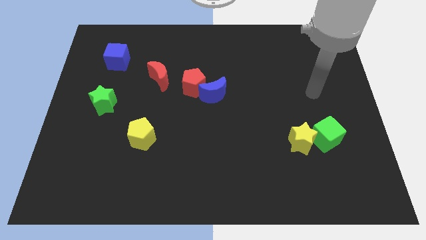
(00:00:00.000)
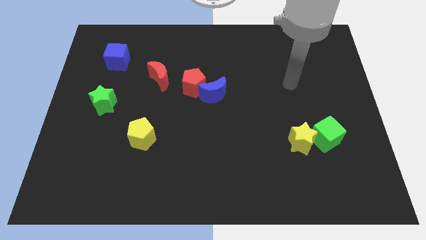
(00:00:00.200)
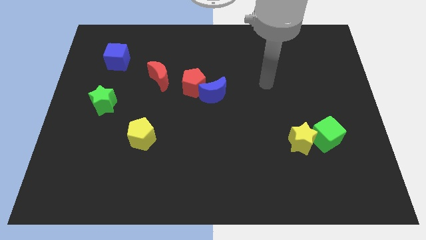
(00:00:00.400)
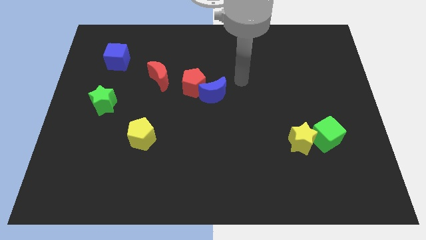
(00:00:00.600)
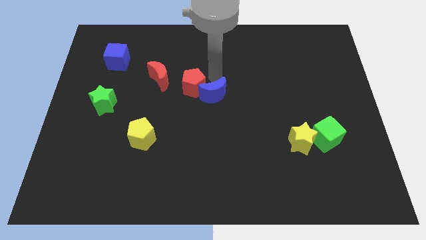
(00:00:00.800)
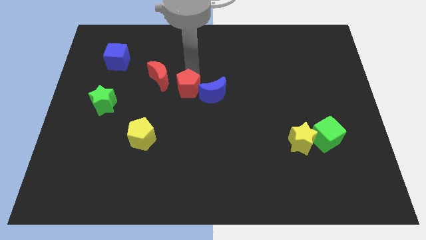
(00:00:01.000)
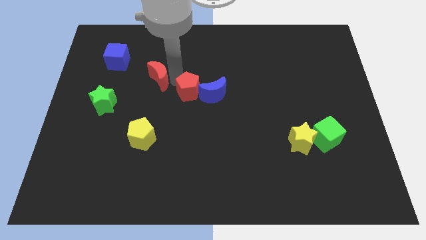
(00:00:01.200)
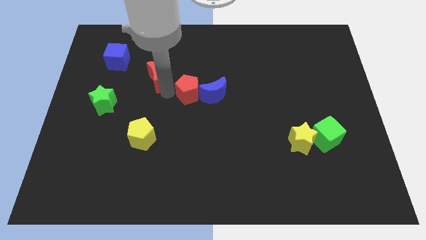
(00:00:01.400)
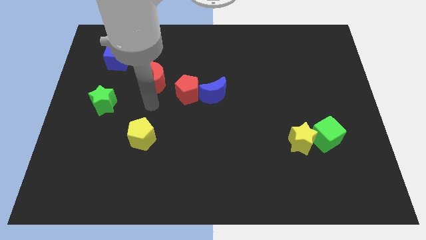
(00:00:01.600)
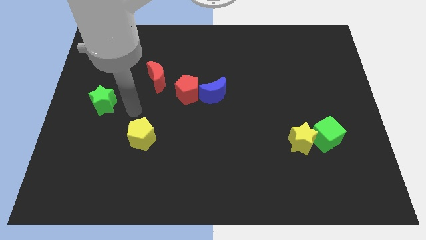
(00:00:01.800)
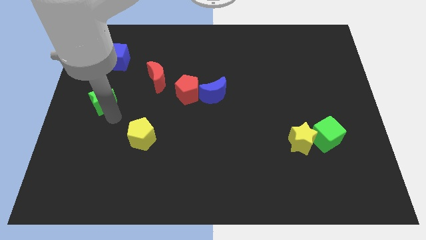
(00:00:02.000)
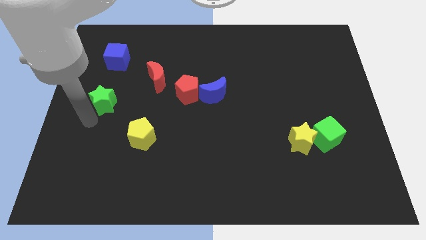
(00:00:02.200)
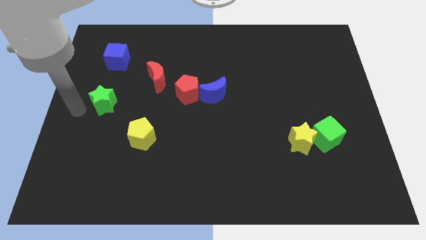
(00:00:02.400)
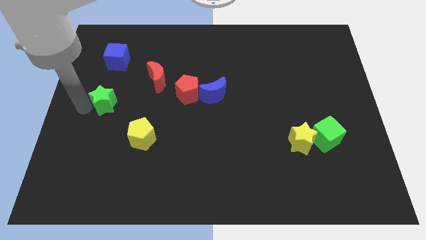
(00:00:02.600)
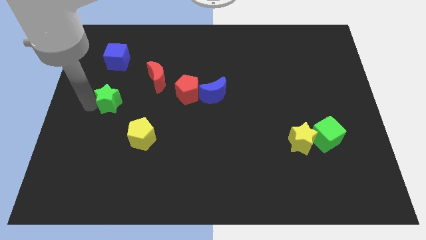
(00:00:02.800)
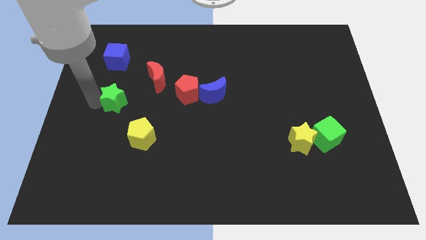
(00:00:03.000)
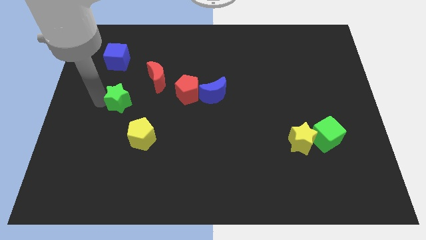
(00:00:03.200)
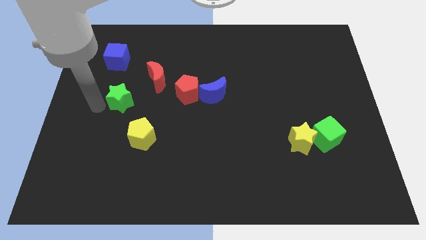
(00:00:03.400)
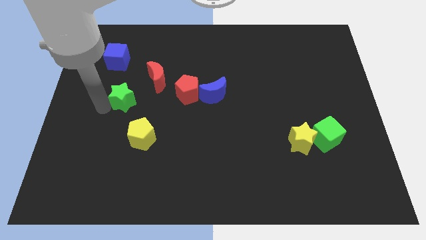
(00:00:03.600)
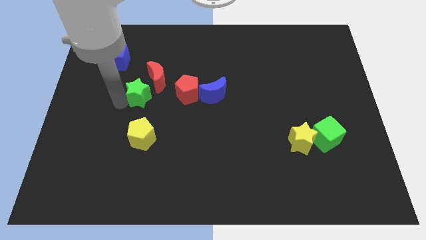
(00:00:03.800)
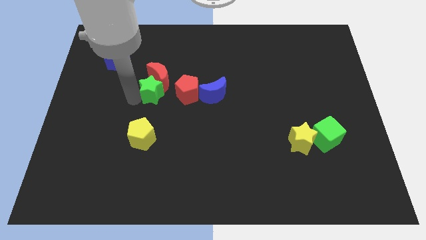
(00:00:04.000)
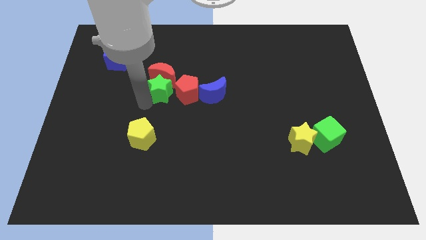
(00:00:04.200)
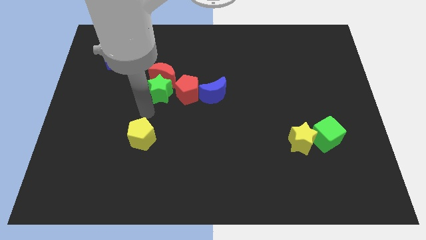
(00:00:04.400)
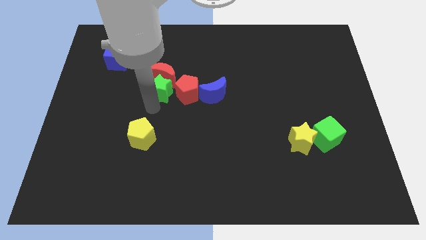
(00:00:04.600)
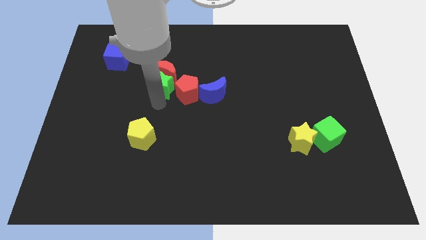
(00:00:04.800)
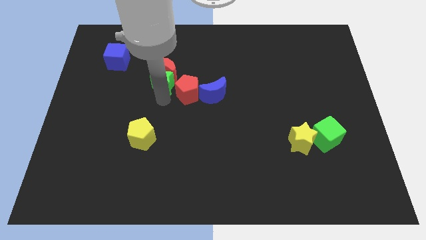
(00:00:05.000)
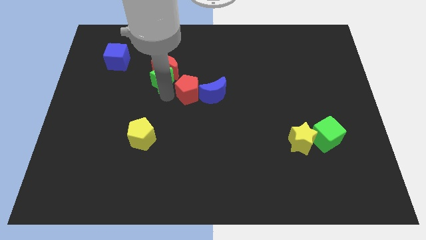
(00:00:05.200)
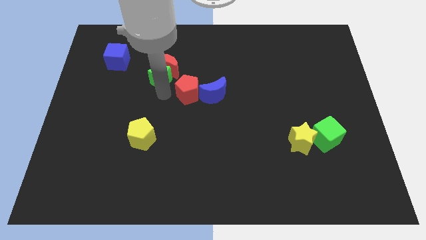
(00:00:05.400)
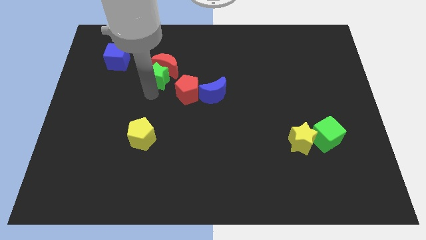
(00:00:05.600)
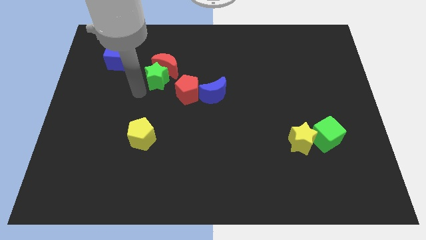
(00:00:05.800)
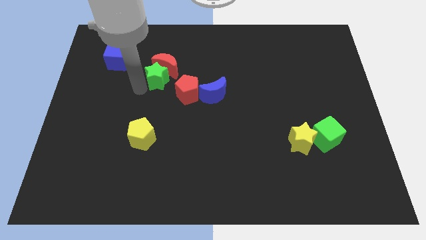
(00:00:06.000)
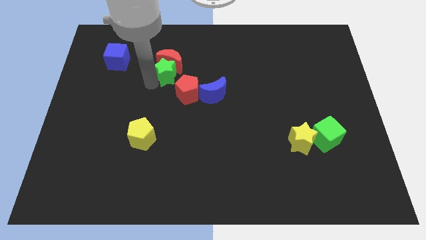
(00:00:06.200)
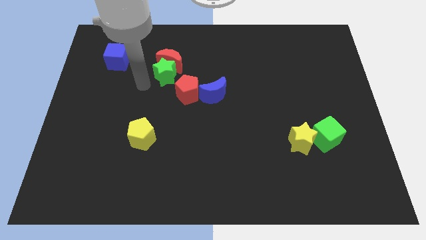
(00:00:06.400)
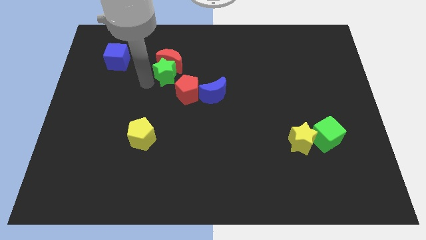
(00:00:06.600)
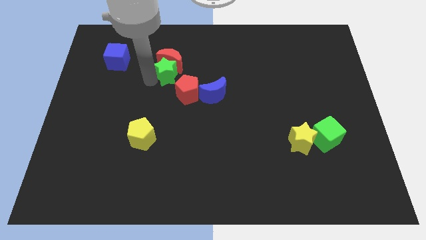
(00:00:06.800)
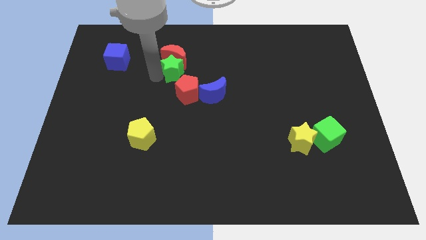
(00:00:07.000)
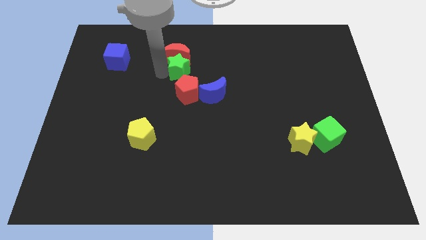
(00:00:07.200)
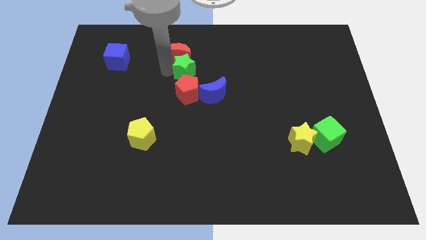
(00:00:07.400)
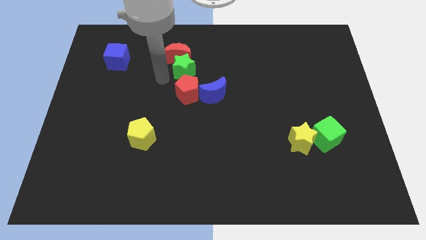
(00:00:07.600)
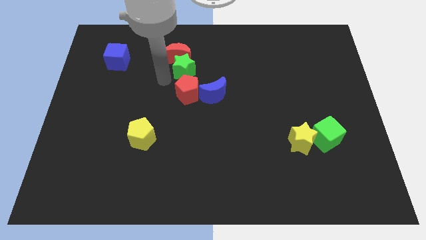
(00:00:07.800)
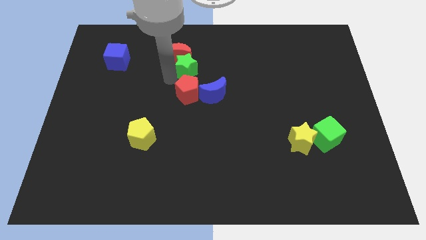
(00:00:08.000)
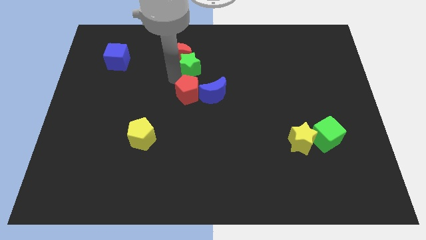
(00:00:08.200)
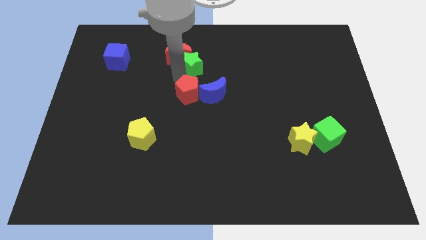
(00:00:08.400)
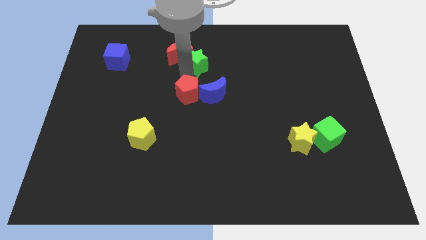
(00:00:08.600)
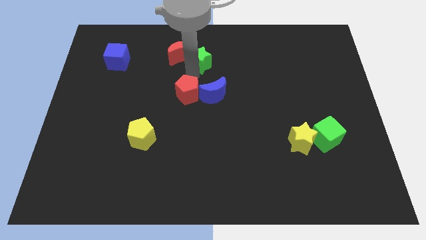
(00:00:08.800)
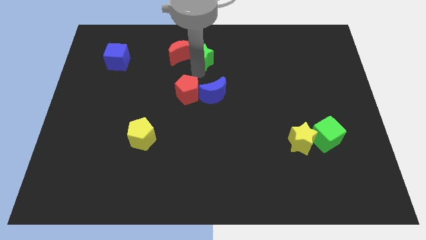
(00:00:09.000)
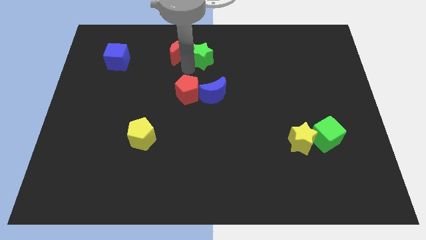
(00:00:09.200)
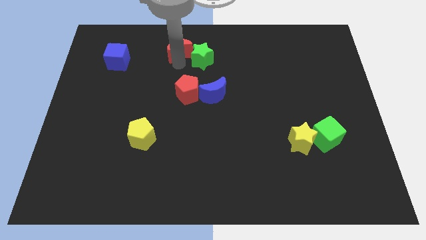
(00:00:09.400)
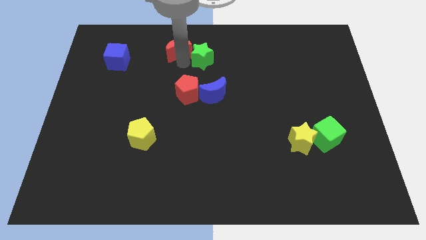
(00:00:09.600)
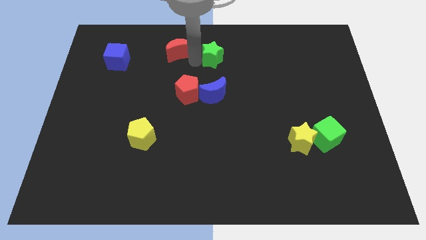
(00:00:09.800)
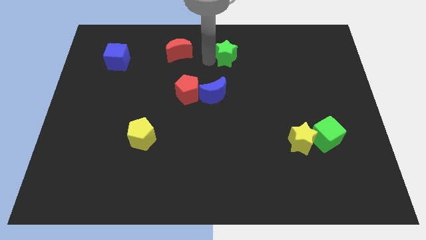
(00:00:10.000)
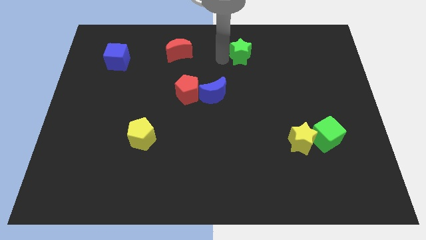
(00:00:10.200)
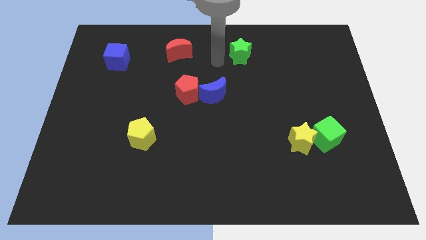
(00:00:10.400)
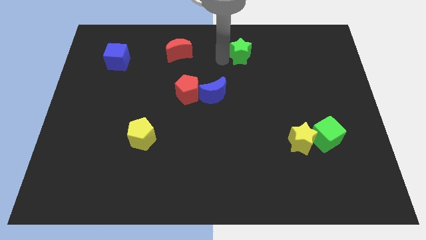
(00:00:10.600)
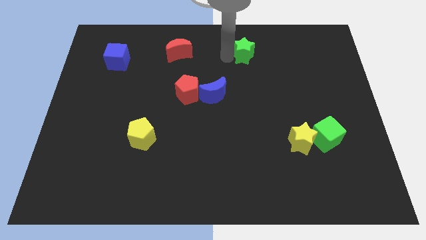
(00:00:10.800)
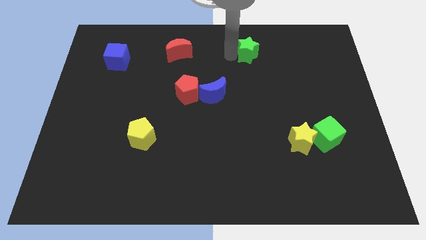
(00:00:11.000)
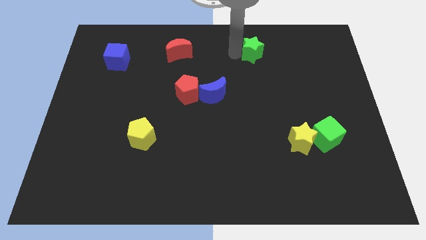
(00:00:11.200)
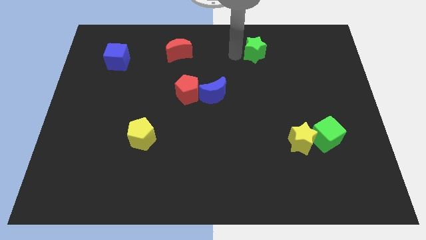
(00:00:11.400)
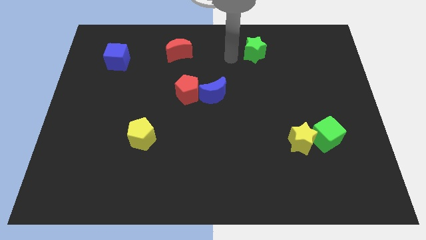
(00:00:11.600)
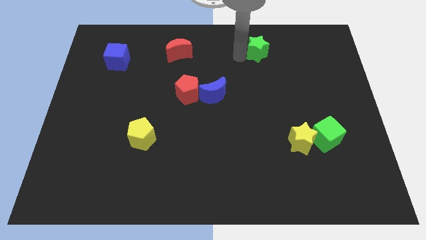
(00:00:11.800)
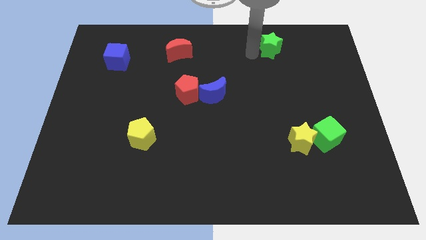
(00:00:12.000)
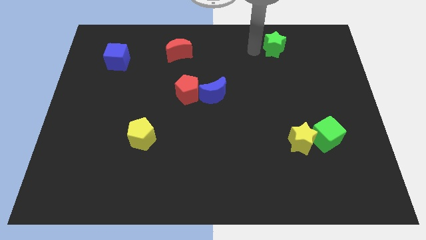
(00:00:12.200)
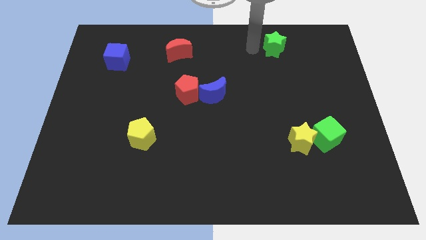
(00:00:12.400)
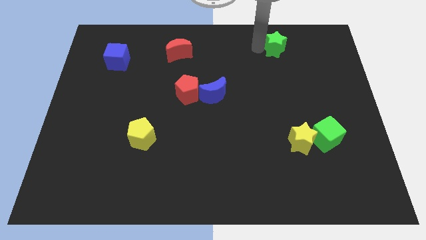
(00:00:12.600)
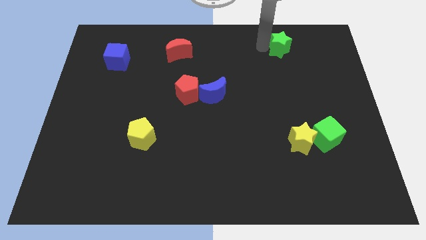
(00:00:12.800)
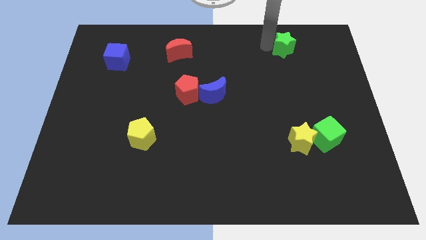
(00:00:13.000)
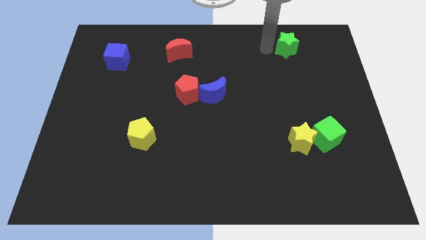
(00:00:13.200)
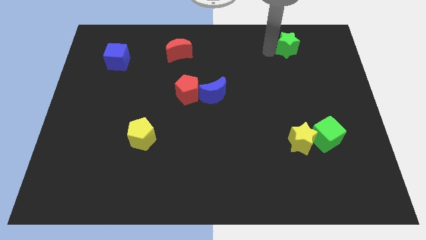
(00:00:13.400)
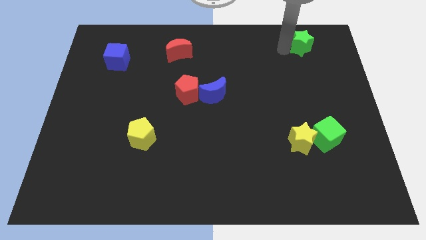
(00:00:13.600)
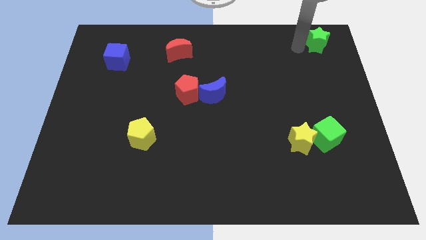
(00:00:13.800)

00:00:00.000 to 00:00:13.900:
put the green star to the top right
